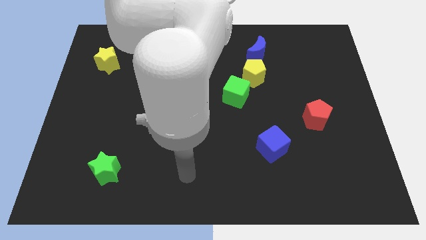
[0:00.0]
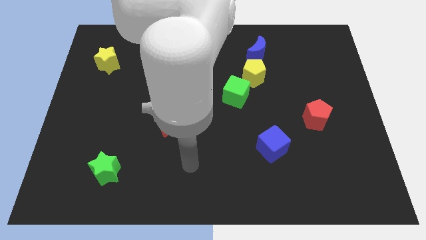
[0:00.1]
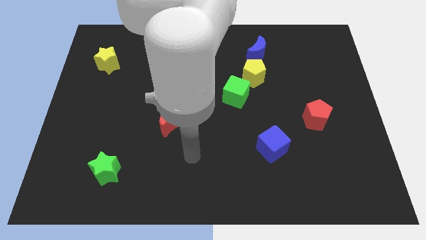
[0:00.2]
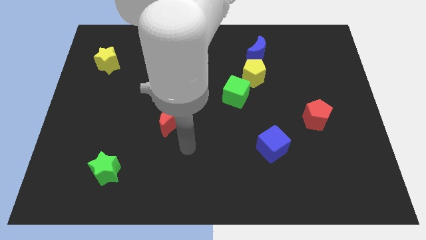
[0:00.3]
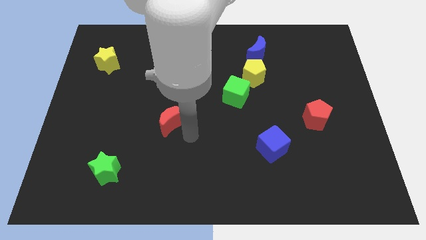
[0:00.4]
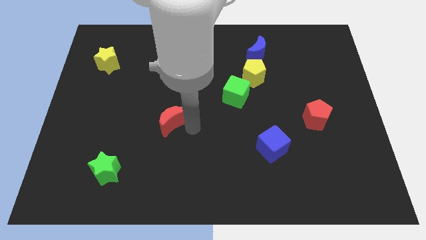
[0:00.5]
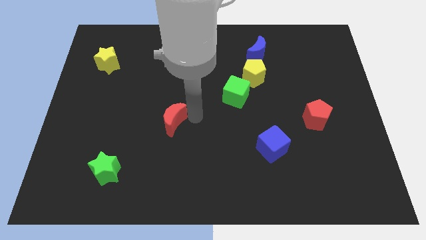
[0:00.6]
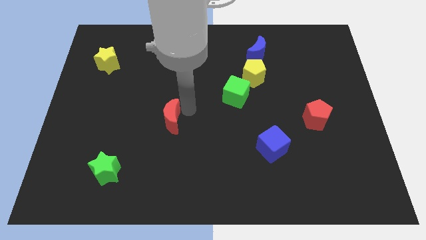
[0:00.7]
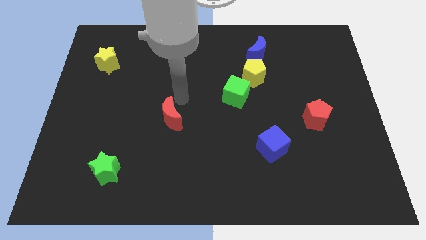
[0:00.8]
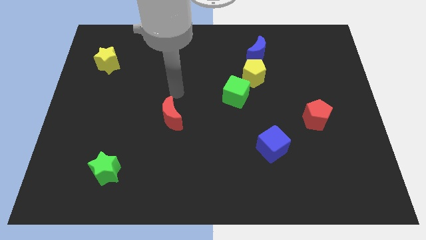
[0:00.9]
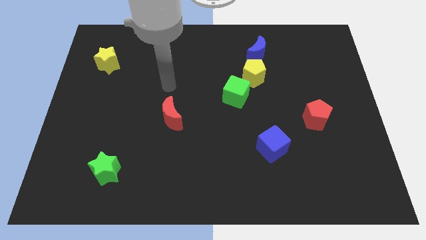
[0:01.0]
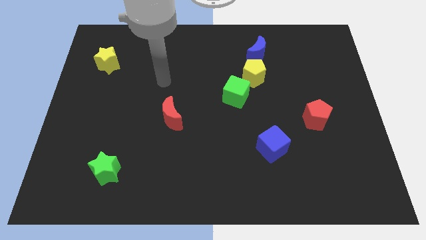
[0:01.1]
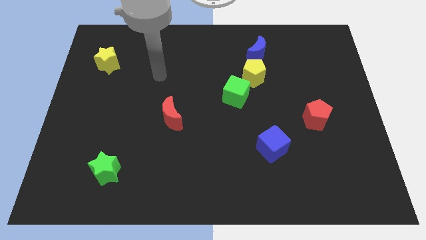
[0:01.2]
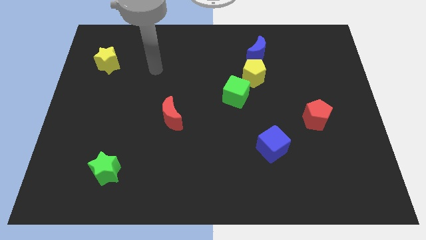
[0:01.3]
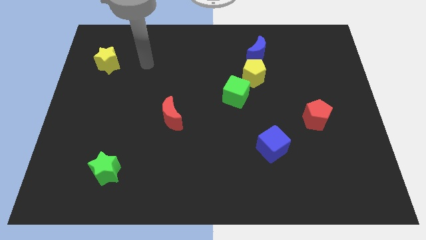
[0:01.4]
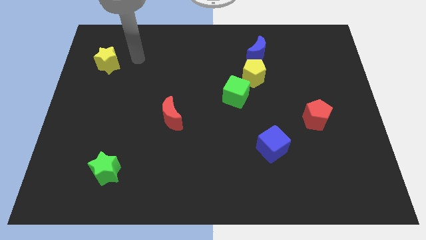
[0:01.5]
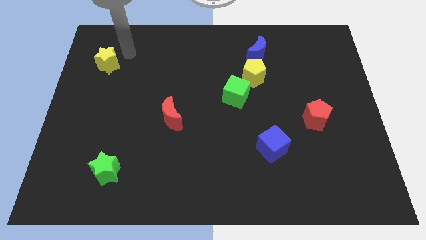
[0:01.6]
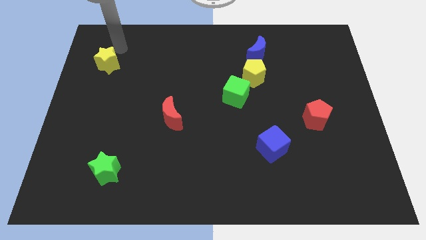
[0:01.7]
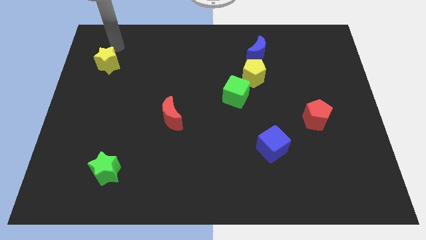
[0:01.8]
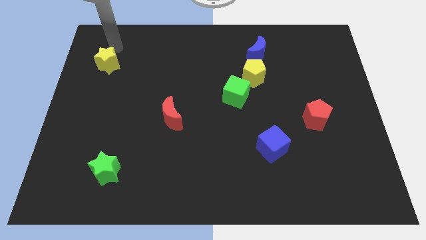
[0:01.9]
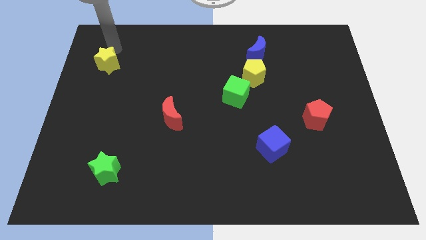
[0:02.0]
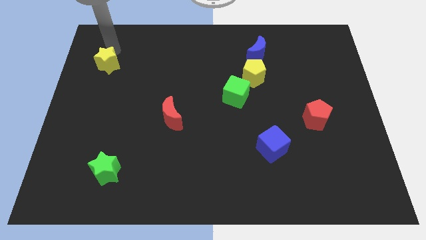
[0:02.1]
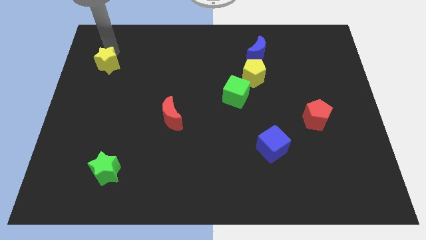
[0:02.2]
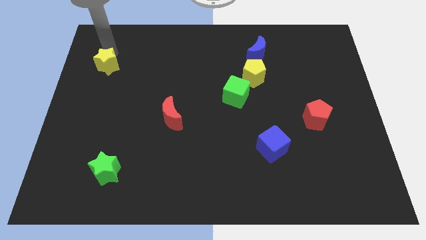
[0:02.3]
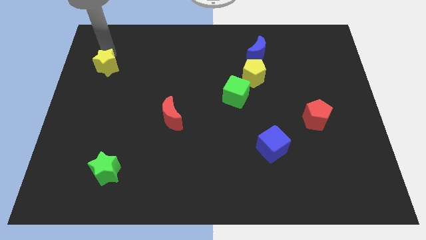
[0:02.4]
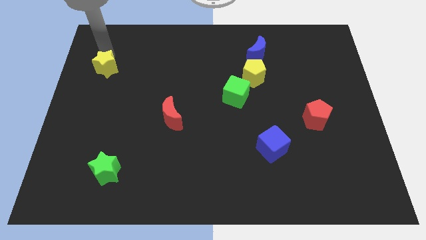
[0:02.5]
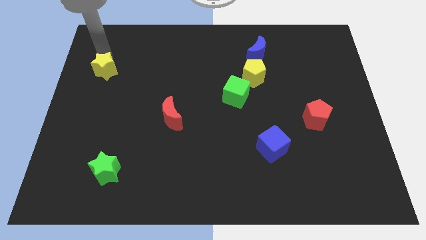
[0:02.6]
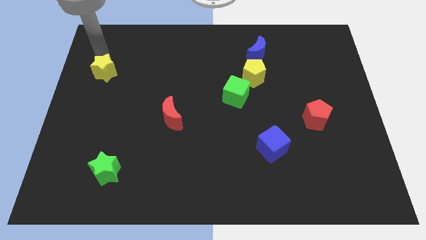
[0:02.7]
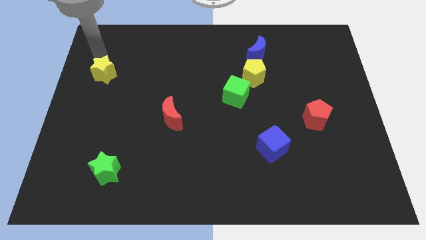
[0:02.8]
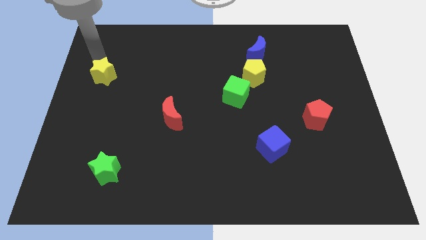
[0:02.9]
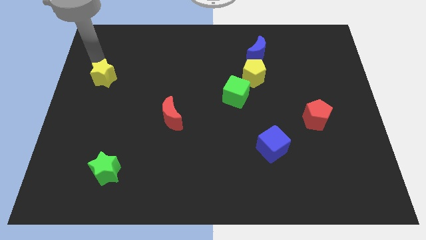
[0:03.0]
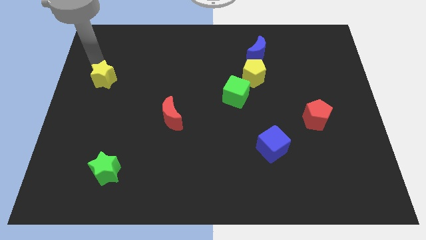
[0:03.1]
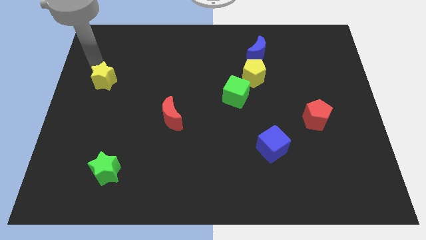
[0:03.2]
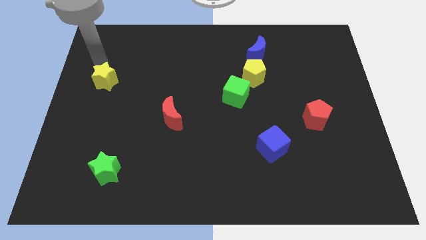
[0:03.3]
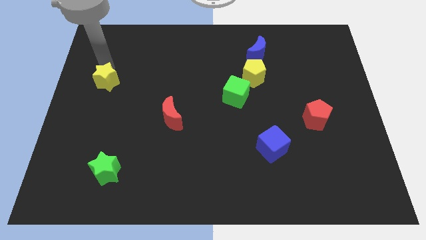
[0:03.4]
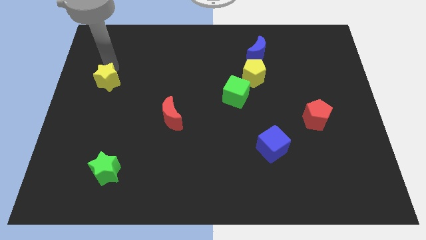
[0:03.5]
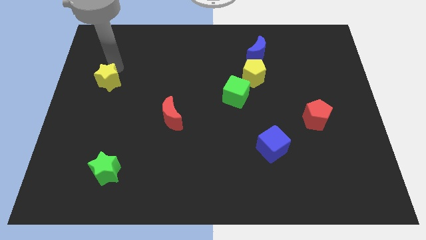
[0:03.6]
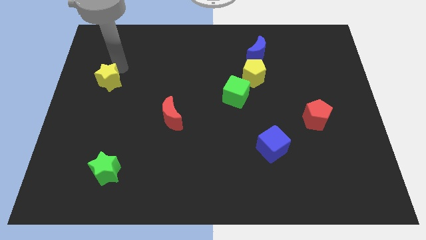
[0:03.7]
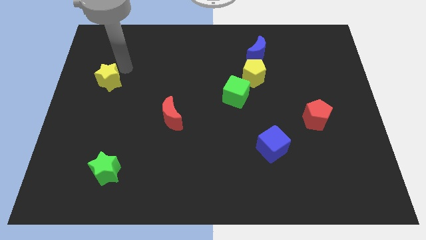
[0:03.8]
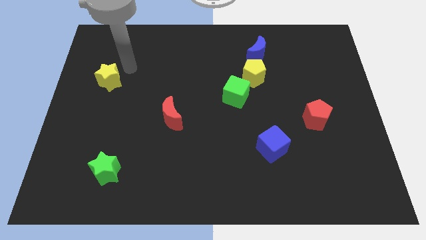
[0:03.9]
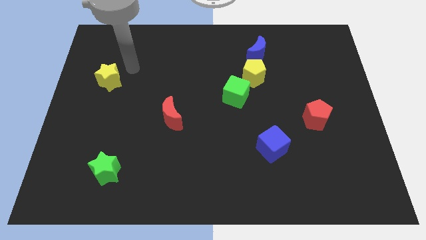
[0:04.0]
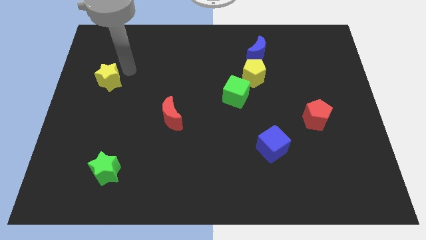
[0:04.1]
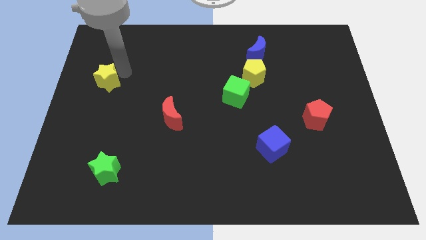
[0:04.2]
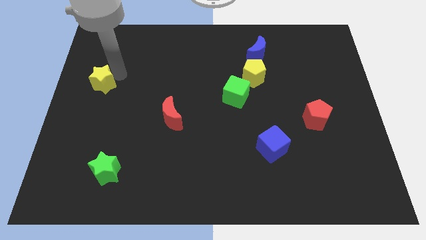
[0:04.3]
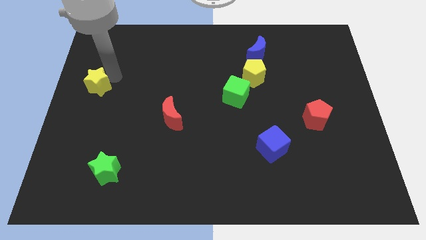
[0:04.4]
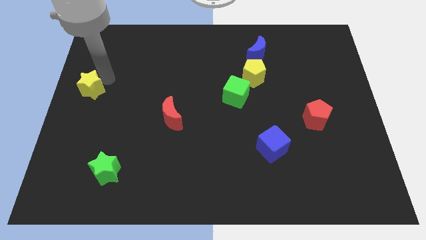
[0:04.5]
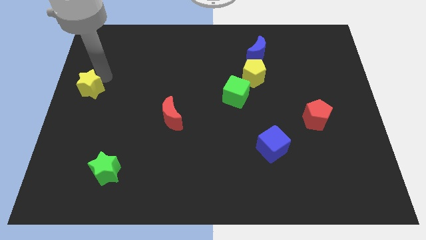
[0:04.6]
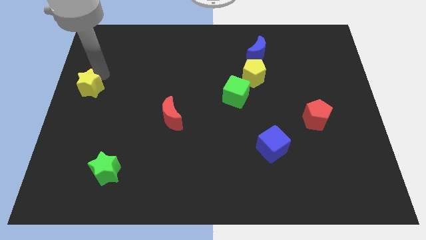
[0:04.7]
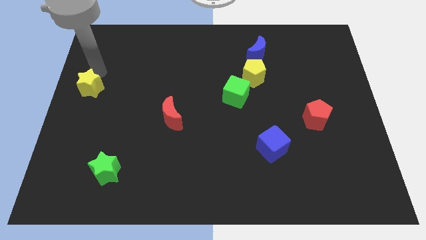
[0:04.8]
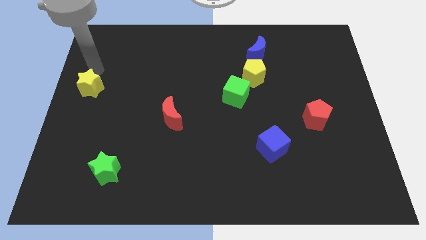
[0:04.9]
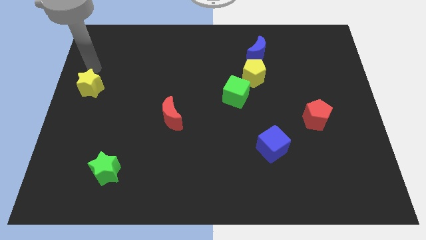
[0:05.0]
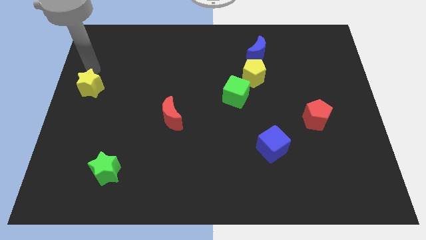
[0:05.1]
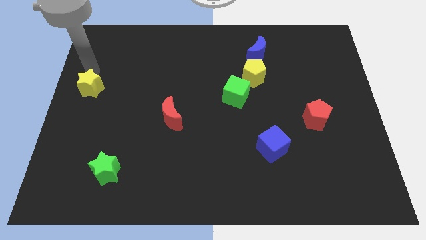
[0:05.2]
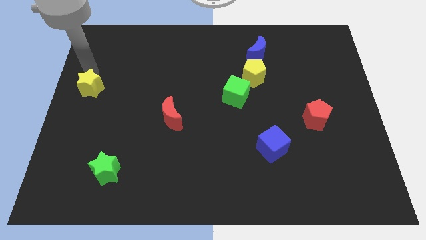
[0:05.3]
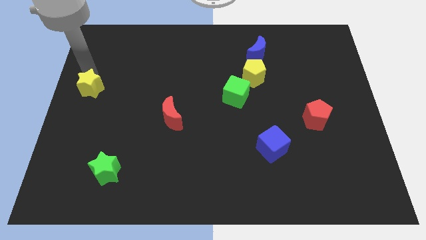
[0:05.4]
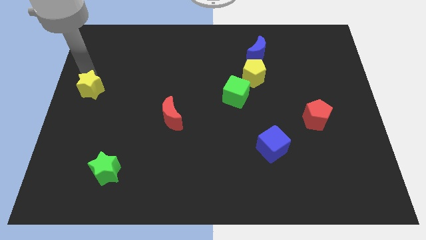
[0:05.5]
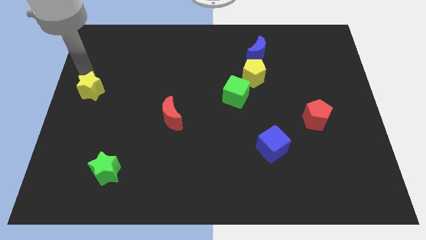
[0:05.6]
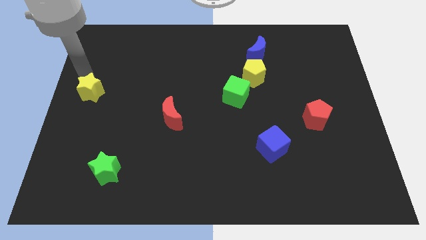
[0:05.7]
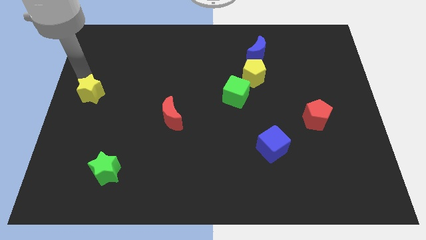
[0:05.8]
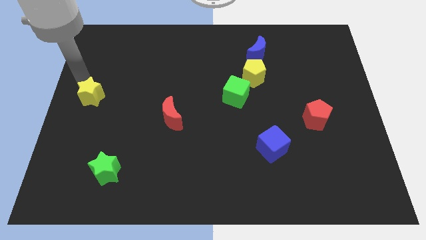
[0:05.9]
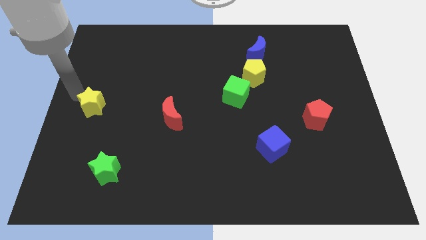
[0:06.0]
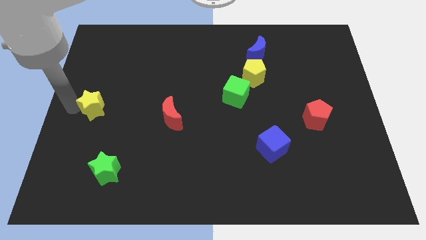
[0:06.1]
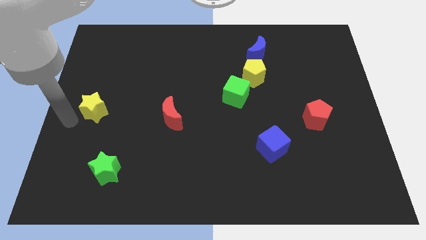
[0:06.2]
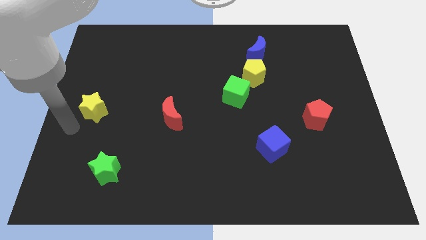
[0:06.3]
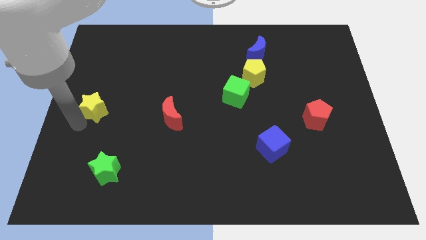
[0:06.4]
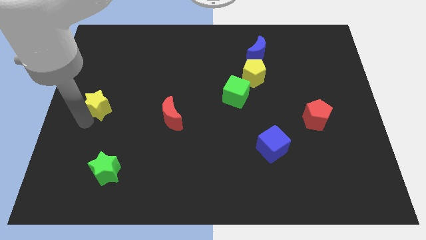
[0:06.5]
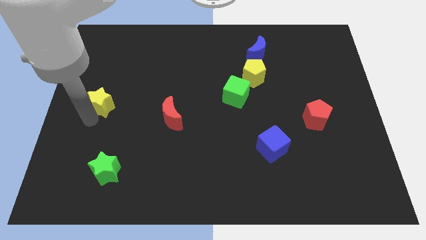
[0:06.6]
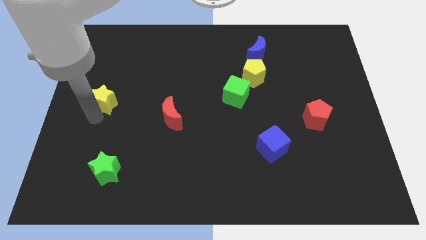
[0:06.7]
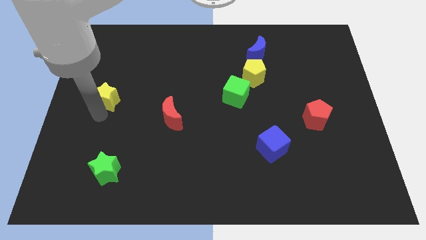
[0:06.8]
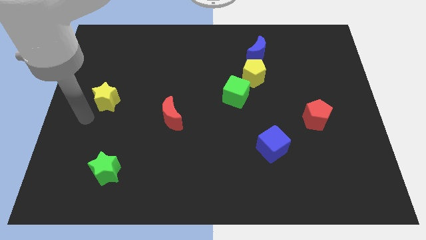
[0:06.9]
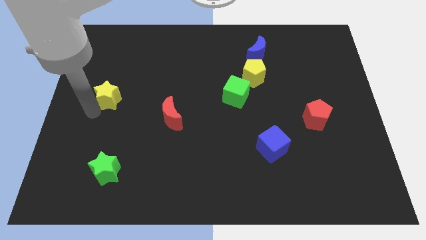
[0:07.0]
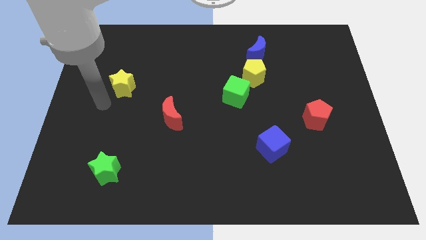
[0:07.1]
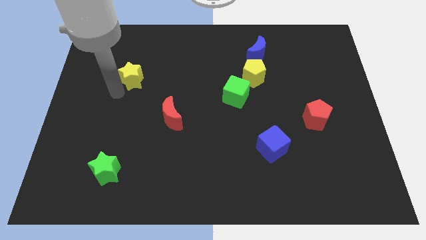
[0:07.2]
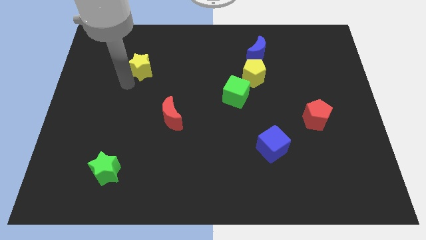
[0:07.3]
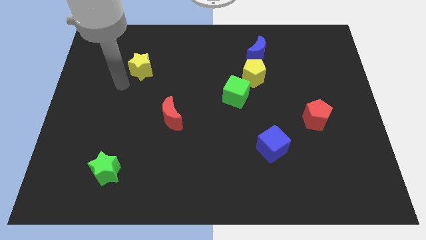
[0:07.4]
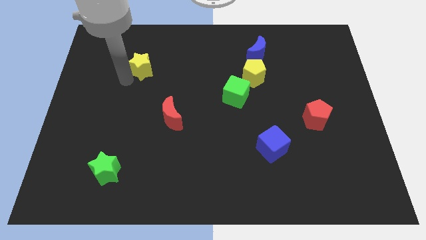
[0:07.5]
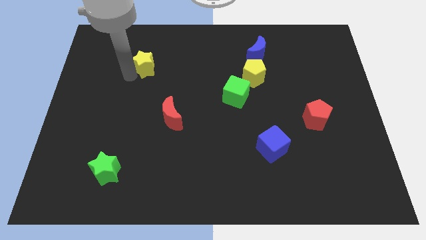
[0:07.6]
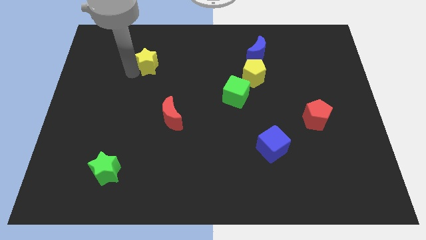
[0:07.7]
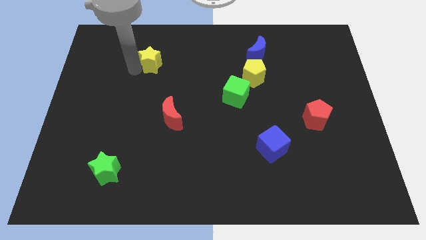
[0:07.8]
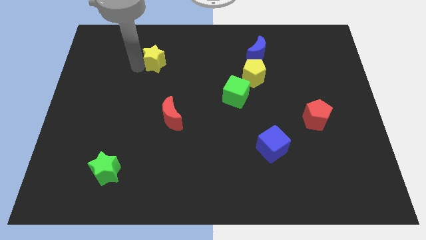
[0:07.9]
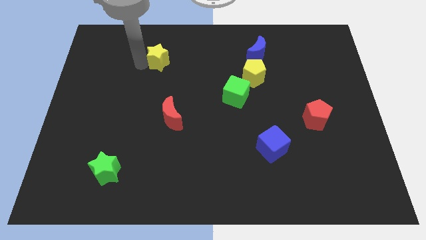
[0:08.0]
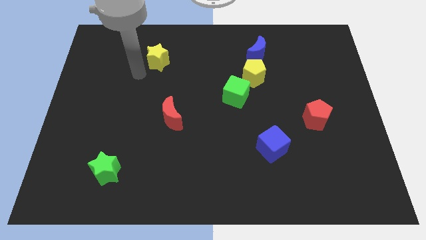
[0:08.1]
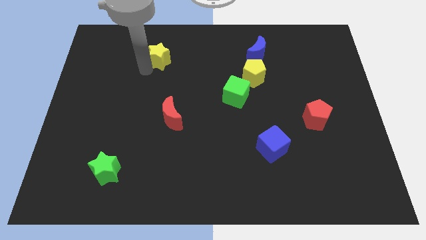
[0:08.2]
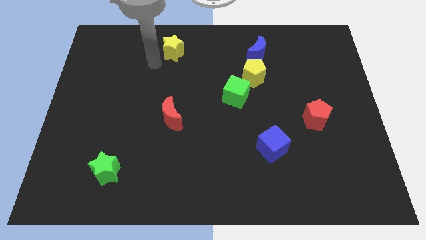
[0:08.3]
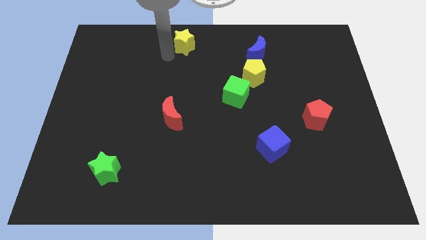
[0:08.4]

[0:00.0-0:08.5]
slide the yellow star to the top side
